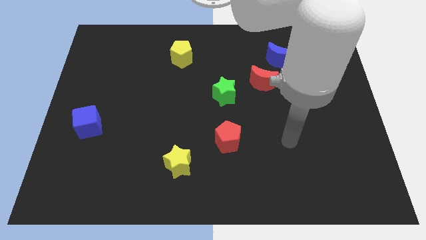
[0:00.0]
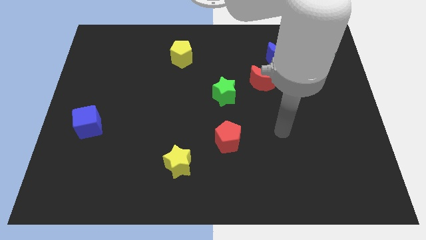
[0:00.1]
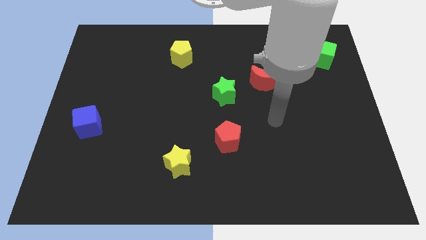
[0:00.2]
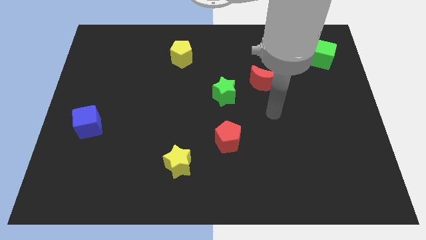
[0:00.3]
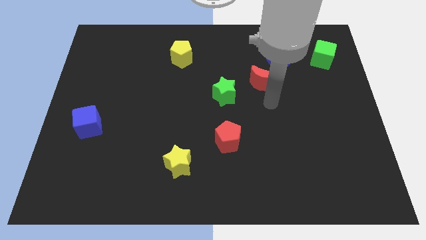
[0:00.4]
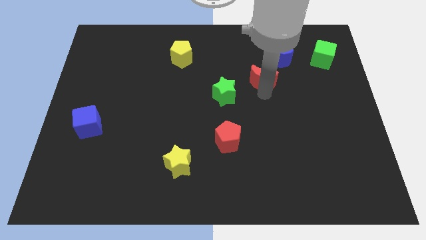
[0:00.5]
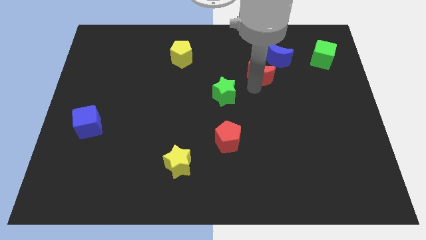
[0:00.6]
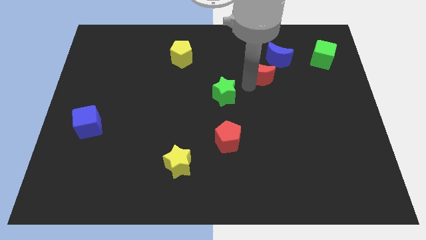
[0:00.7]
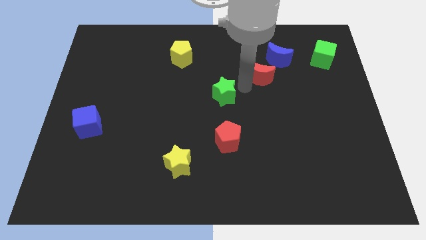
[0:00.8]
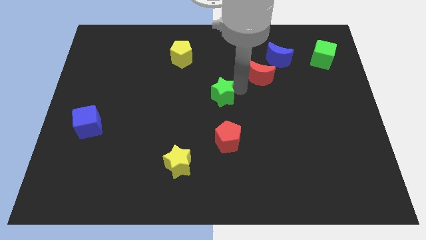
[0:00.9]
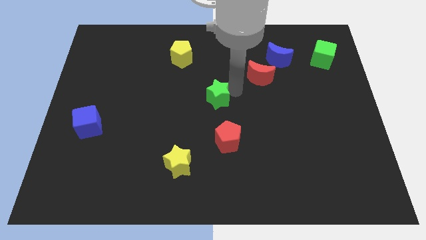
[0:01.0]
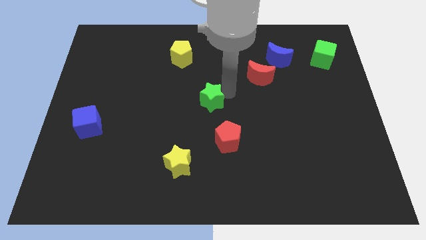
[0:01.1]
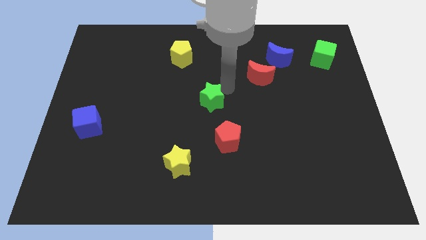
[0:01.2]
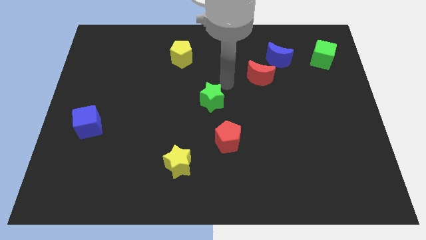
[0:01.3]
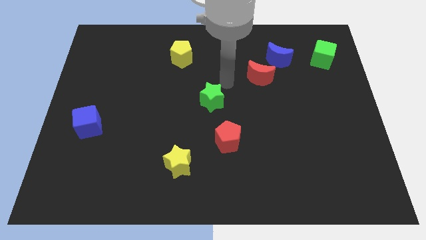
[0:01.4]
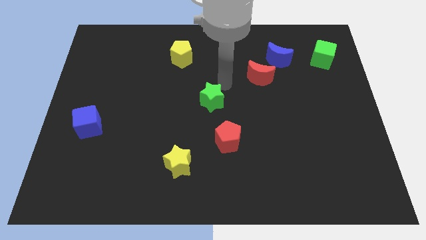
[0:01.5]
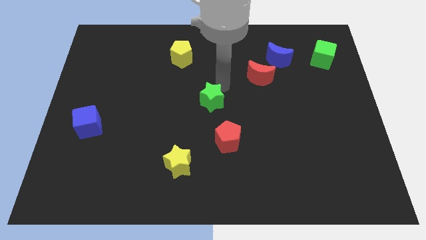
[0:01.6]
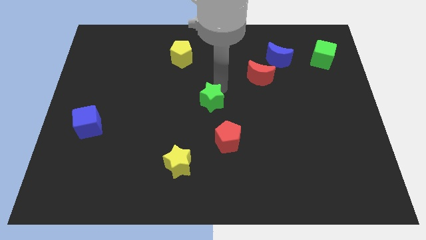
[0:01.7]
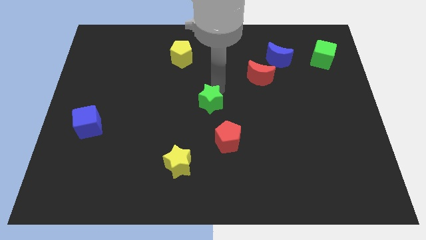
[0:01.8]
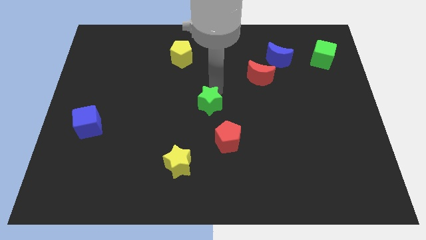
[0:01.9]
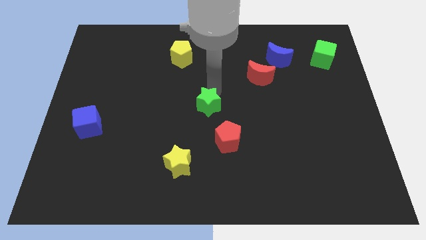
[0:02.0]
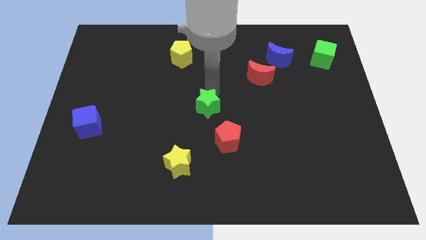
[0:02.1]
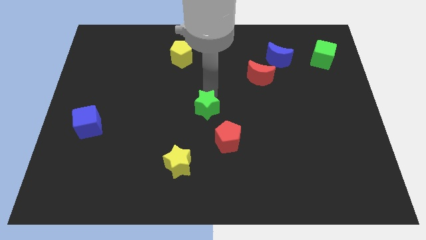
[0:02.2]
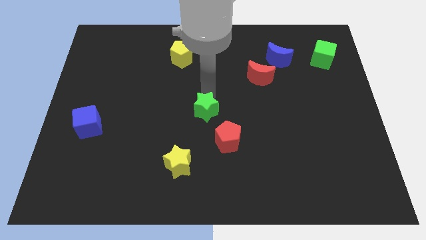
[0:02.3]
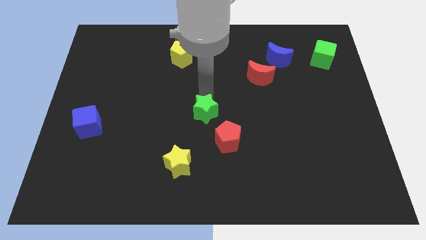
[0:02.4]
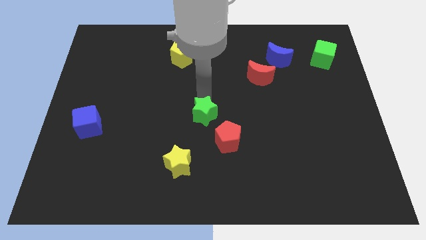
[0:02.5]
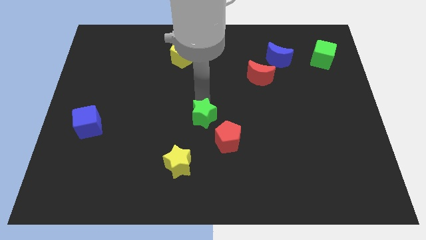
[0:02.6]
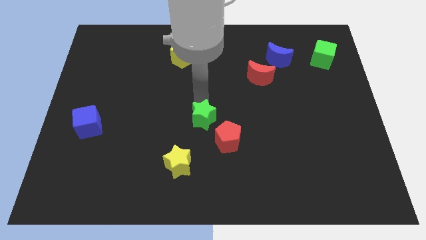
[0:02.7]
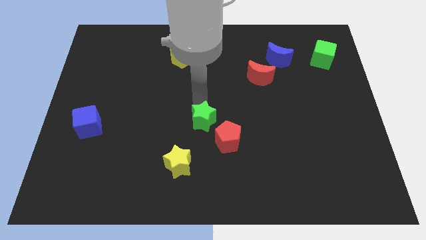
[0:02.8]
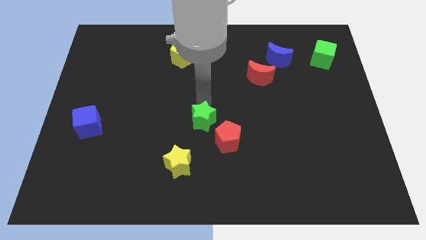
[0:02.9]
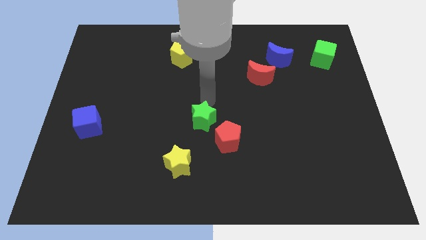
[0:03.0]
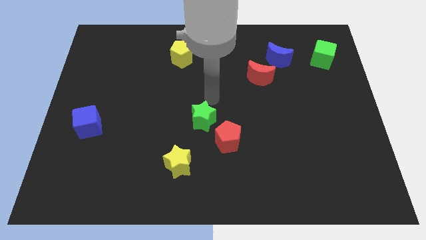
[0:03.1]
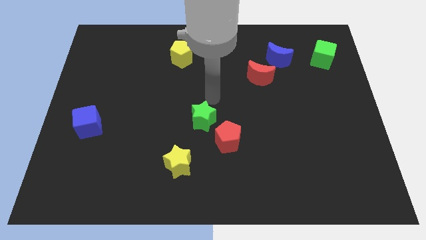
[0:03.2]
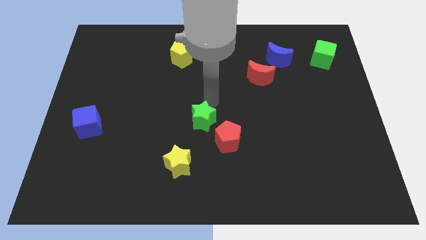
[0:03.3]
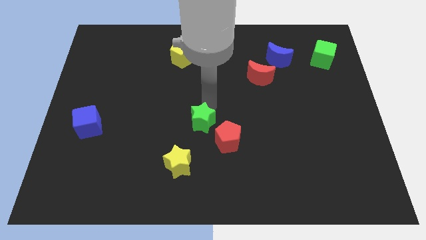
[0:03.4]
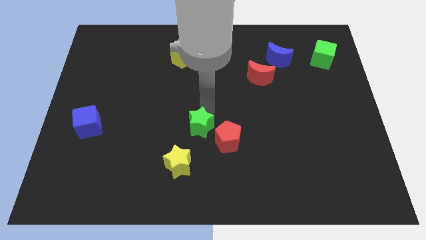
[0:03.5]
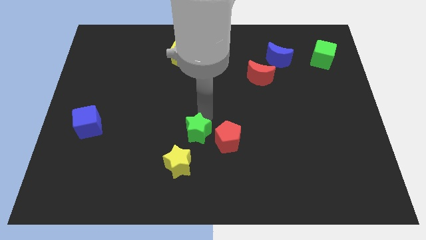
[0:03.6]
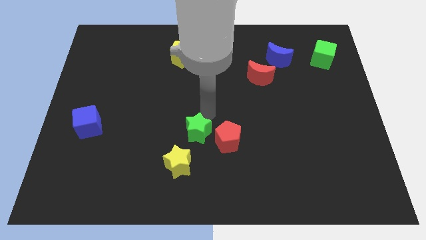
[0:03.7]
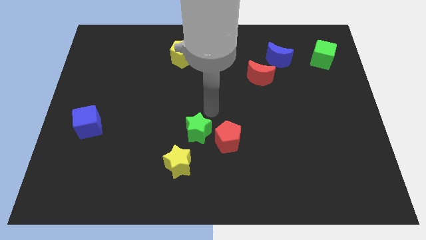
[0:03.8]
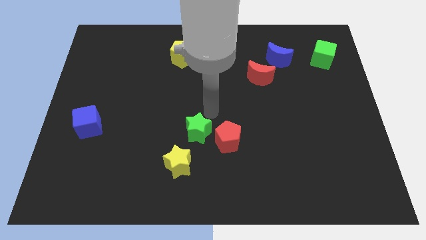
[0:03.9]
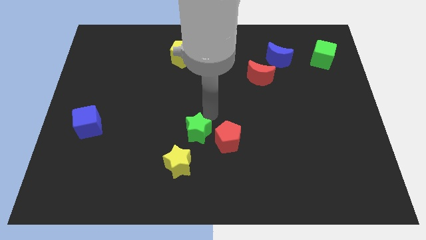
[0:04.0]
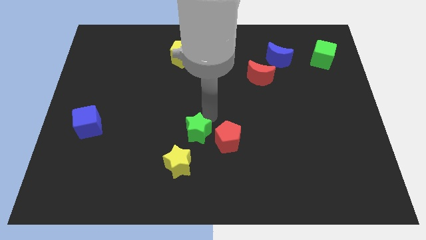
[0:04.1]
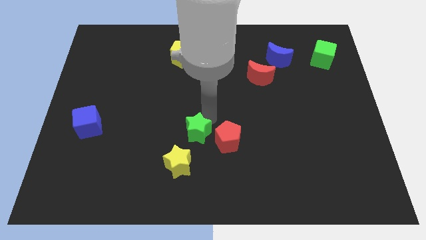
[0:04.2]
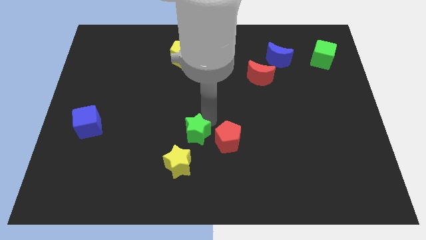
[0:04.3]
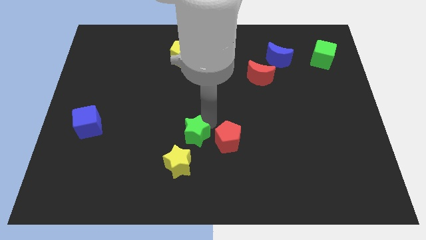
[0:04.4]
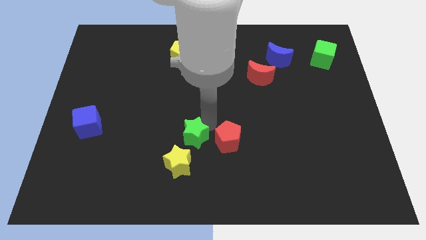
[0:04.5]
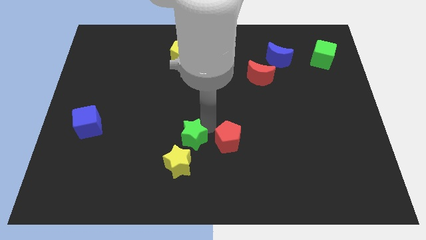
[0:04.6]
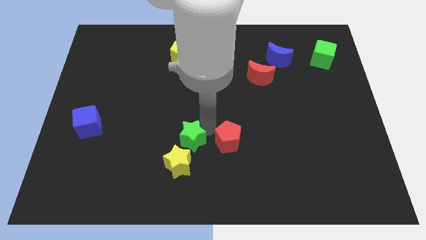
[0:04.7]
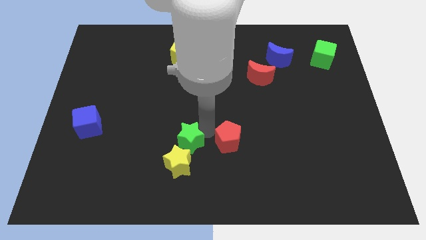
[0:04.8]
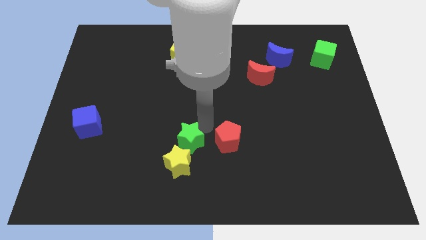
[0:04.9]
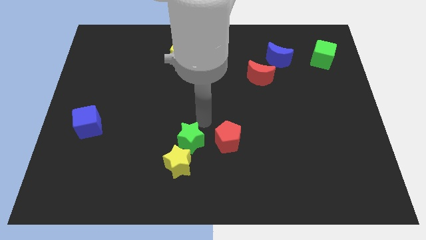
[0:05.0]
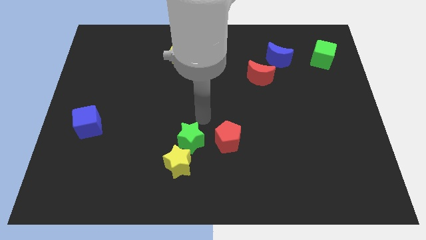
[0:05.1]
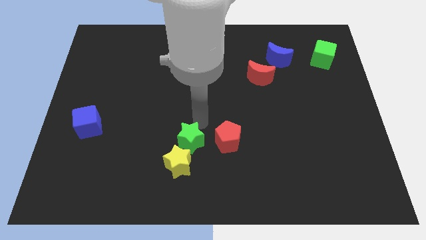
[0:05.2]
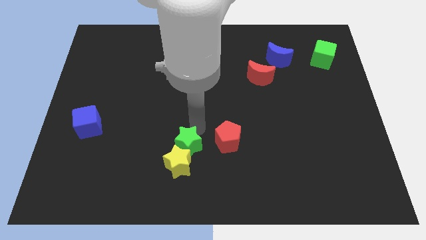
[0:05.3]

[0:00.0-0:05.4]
put the green star close to the yellow star

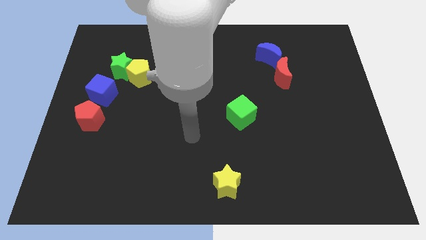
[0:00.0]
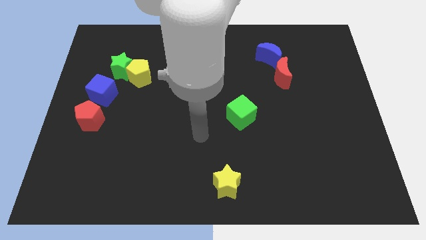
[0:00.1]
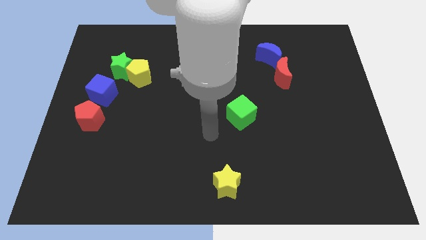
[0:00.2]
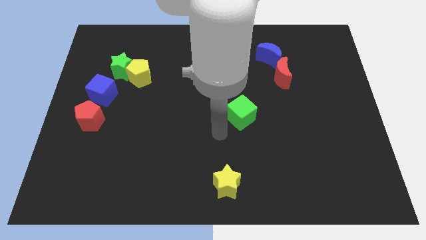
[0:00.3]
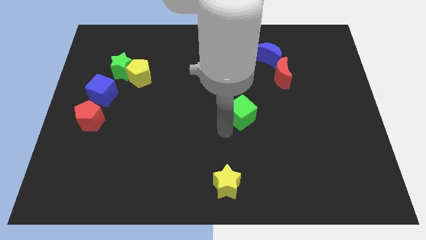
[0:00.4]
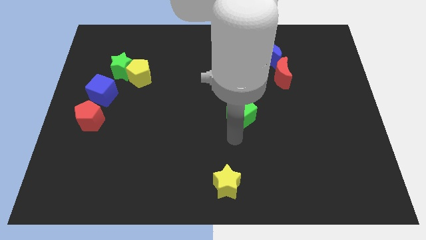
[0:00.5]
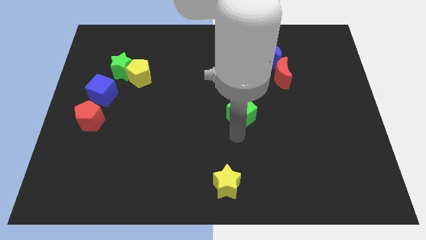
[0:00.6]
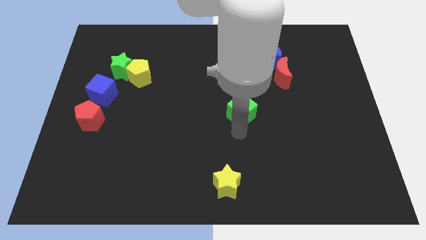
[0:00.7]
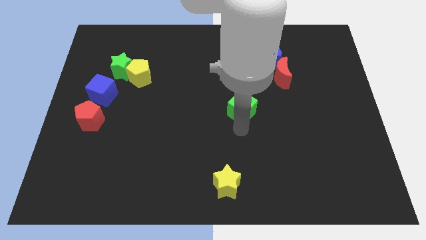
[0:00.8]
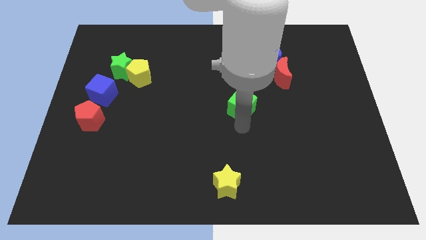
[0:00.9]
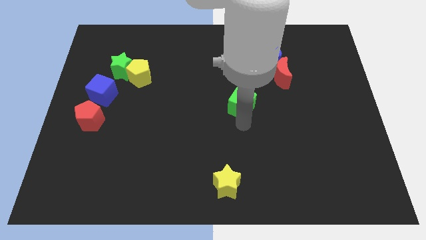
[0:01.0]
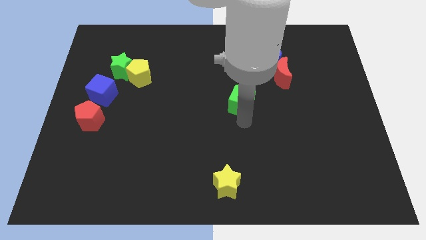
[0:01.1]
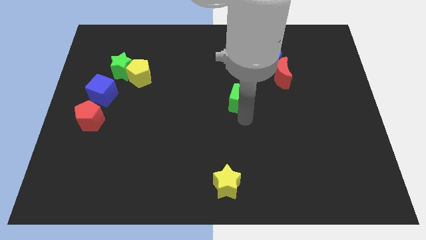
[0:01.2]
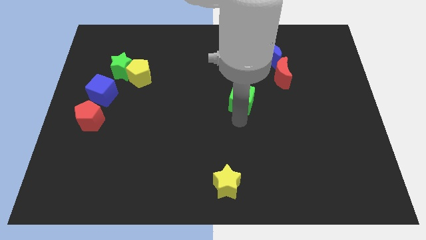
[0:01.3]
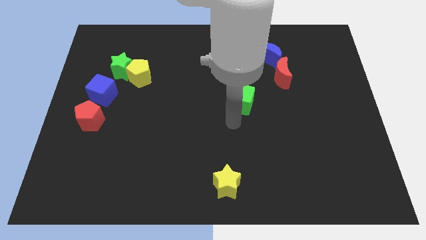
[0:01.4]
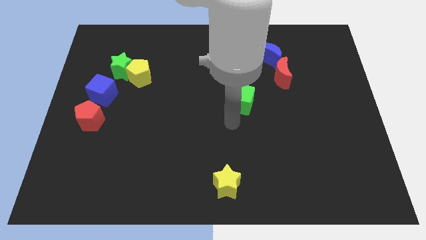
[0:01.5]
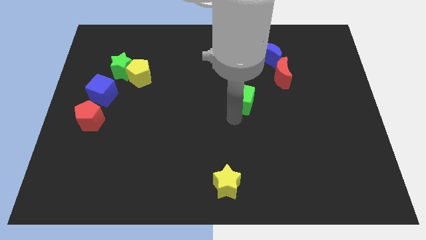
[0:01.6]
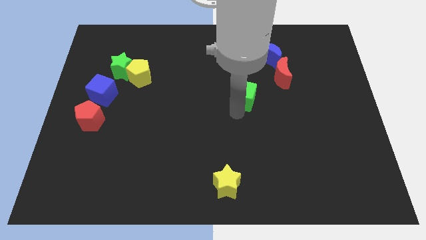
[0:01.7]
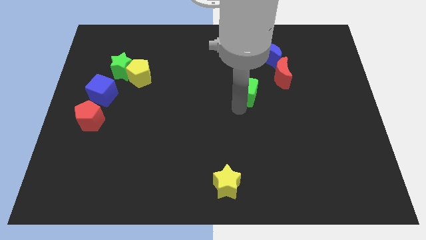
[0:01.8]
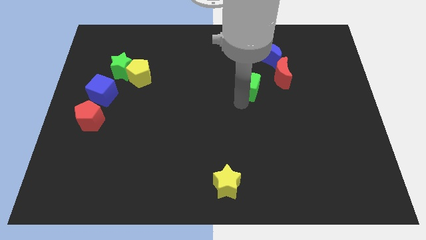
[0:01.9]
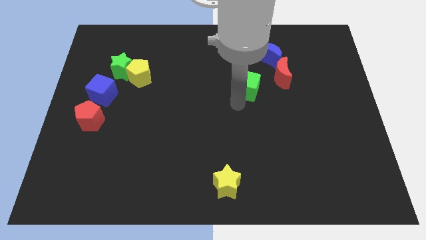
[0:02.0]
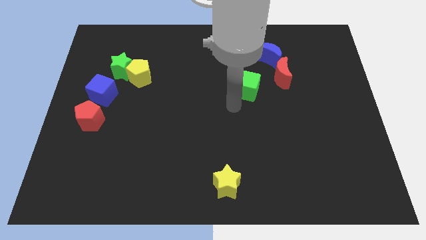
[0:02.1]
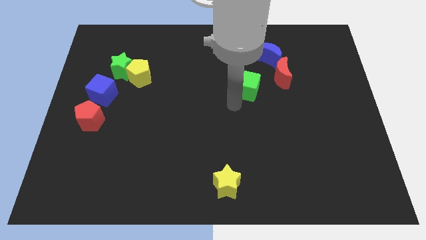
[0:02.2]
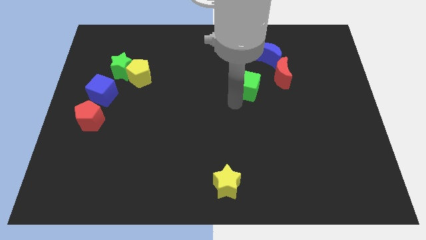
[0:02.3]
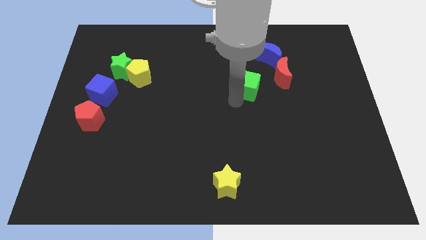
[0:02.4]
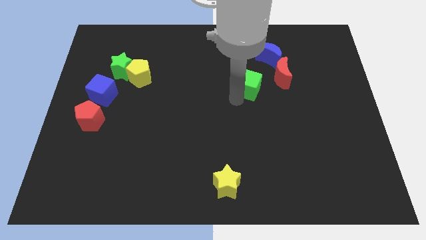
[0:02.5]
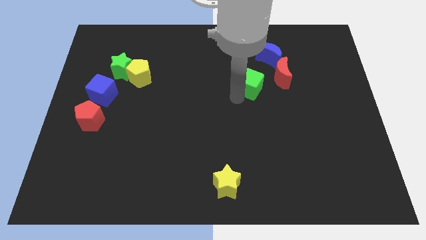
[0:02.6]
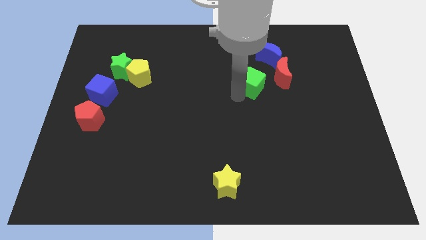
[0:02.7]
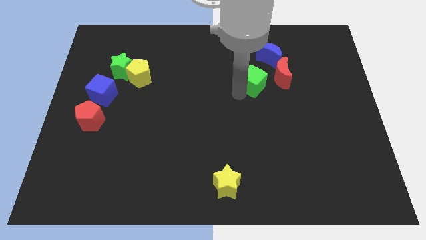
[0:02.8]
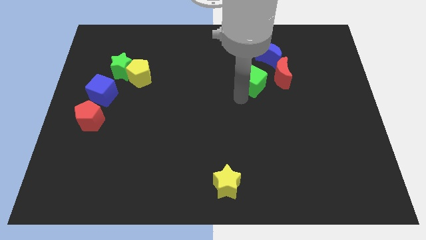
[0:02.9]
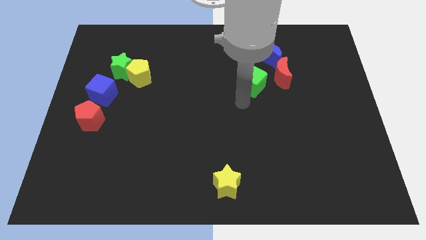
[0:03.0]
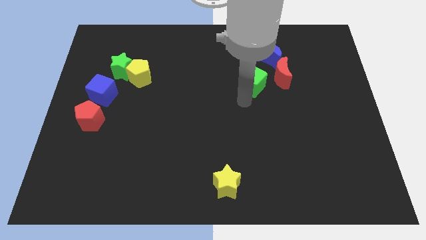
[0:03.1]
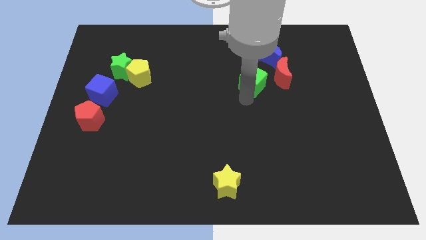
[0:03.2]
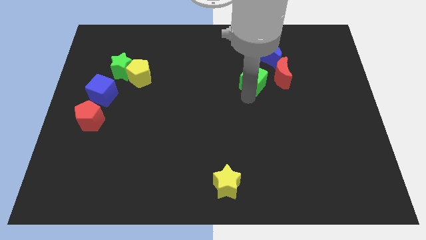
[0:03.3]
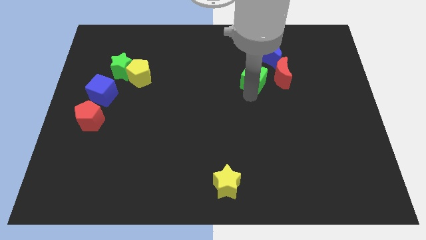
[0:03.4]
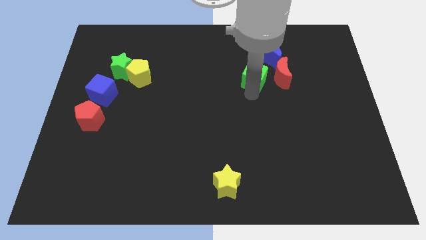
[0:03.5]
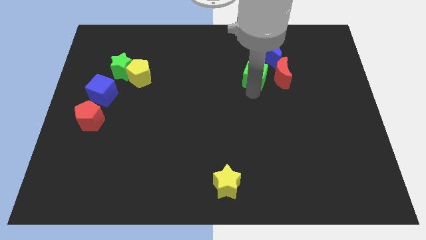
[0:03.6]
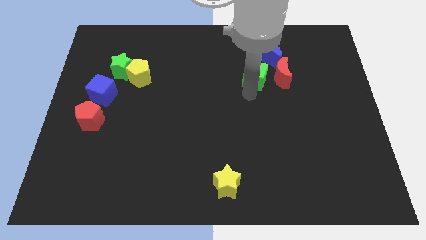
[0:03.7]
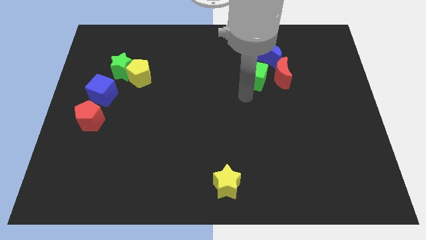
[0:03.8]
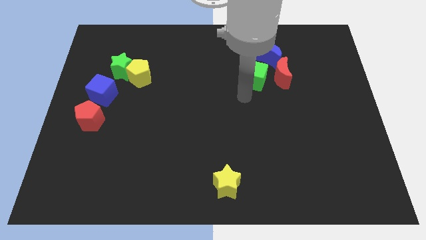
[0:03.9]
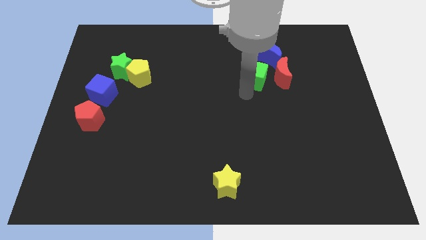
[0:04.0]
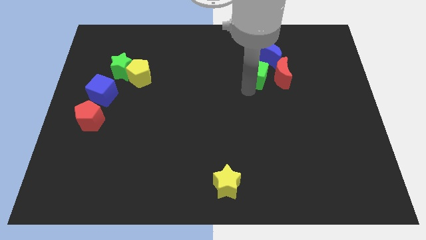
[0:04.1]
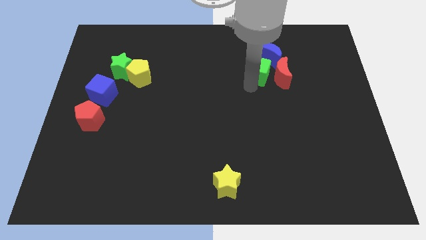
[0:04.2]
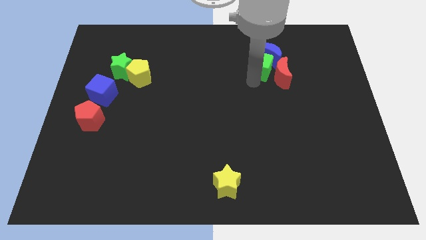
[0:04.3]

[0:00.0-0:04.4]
move the green cube next to the blue moon
